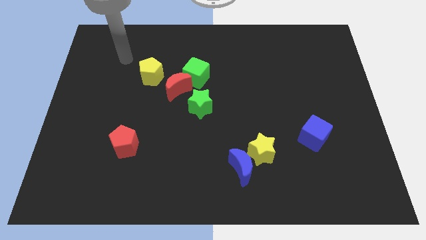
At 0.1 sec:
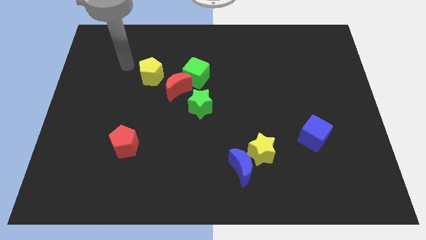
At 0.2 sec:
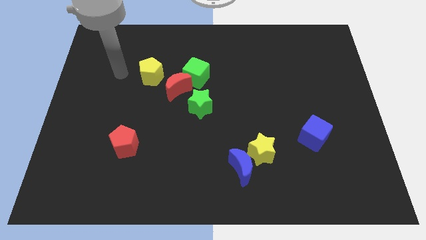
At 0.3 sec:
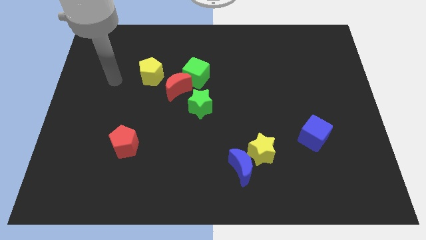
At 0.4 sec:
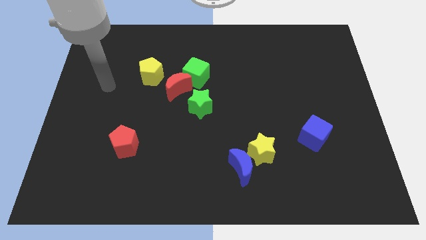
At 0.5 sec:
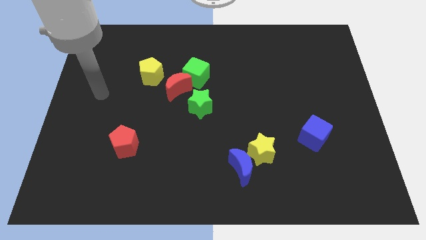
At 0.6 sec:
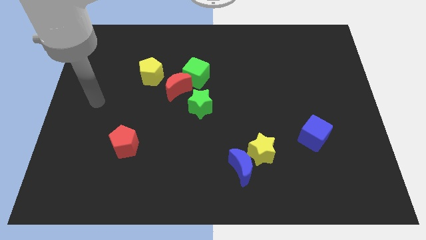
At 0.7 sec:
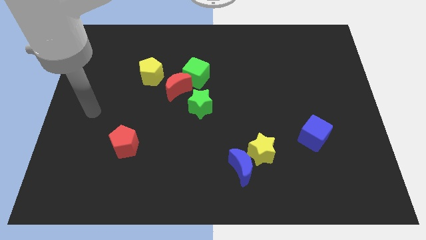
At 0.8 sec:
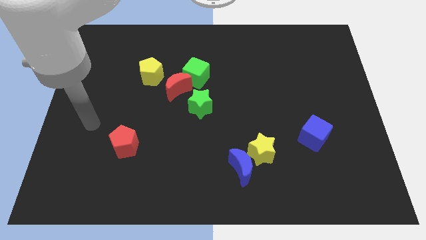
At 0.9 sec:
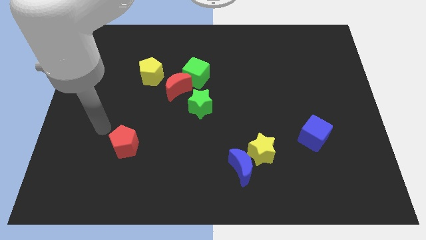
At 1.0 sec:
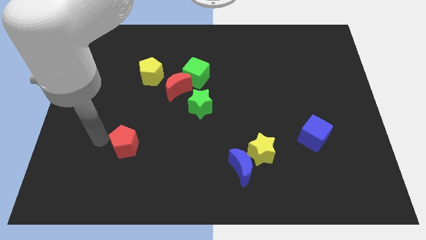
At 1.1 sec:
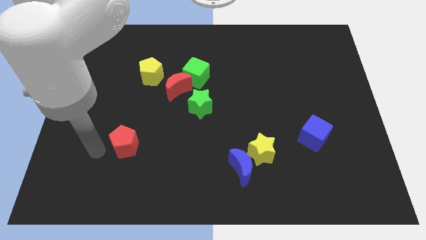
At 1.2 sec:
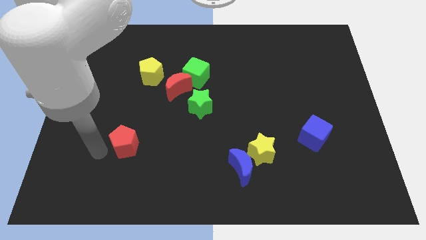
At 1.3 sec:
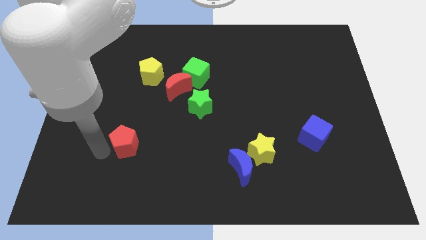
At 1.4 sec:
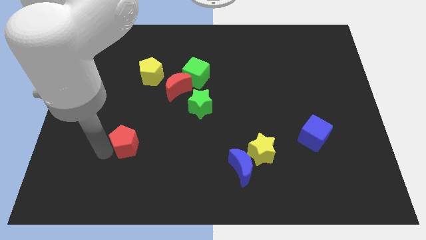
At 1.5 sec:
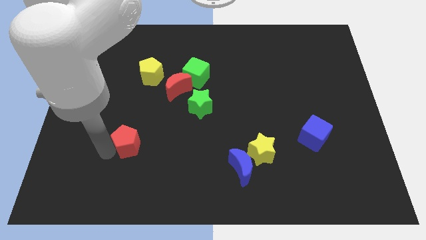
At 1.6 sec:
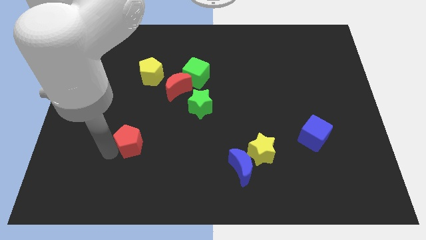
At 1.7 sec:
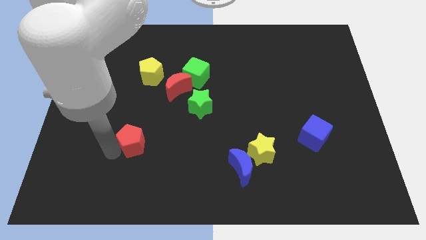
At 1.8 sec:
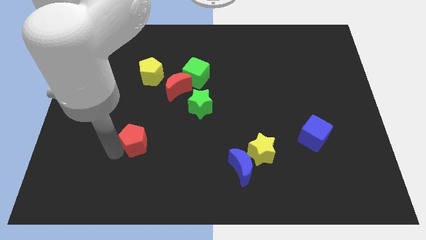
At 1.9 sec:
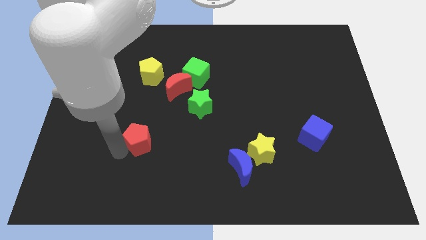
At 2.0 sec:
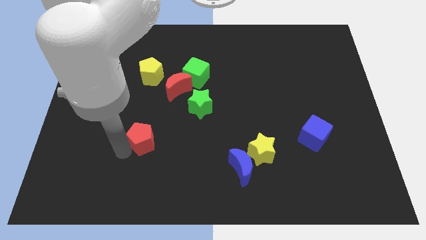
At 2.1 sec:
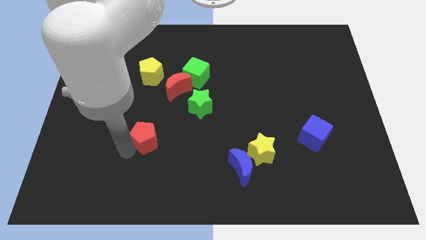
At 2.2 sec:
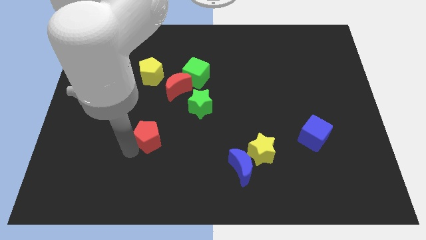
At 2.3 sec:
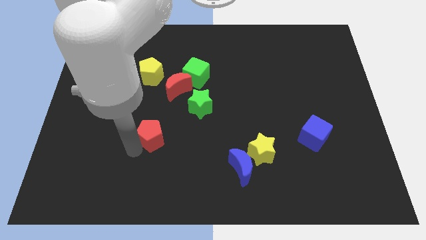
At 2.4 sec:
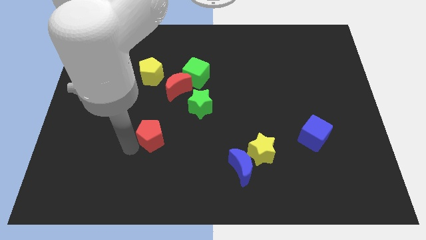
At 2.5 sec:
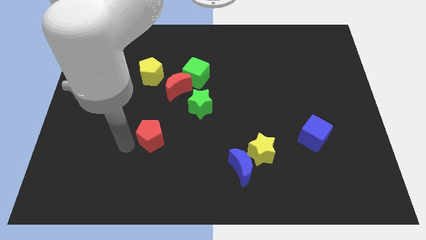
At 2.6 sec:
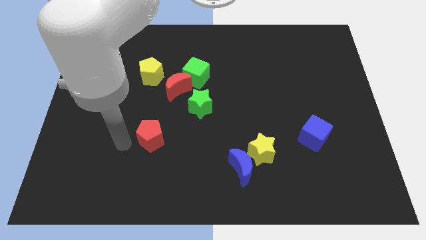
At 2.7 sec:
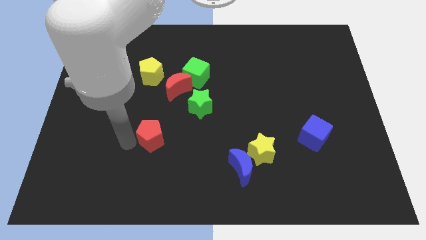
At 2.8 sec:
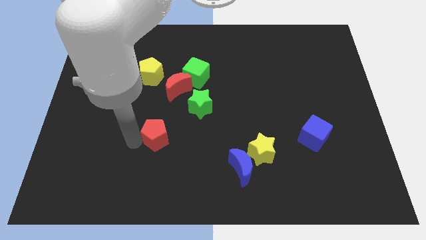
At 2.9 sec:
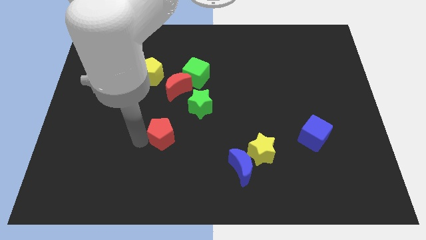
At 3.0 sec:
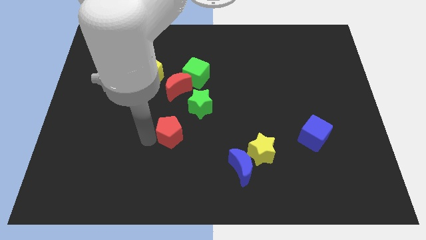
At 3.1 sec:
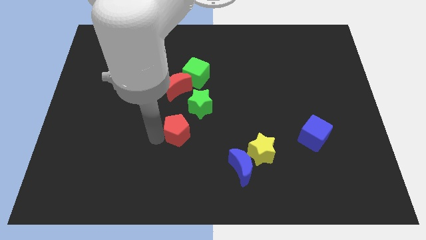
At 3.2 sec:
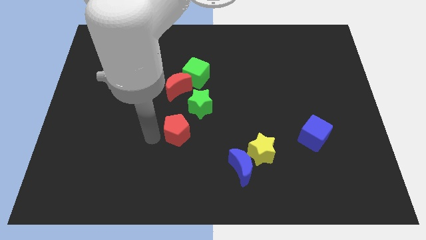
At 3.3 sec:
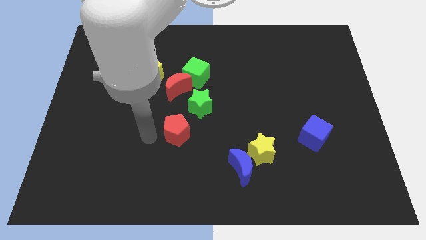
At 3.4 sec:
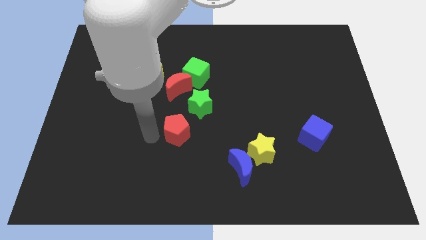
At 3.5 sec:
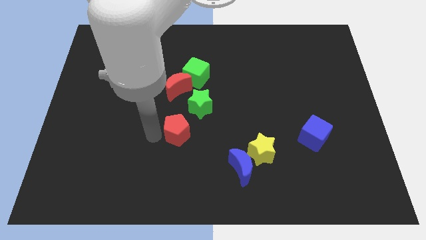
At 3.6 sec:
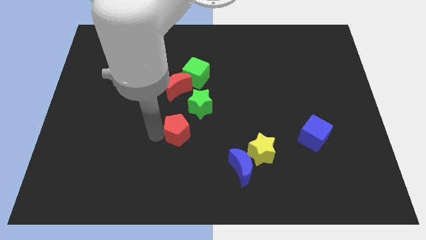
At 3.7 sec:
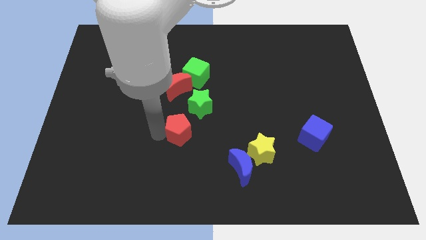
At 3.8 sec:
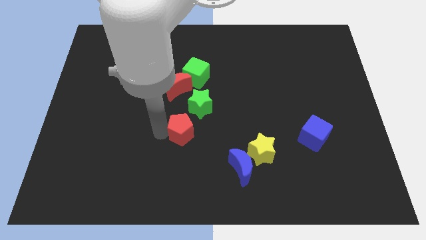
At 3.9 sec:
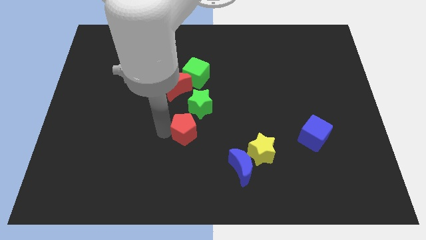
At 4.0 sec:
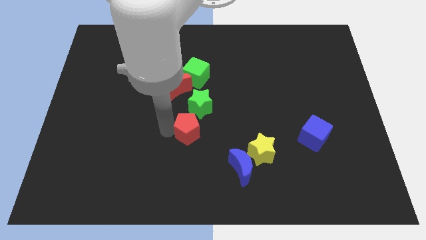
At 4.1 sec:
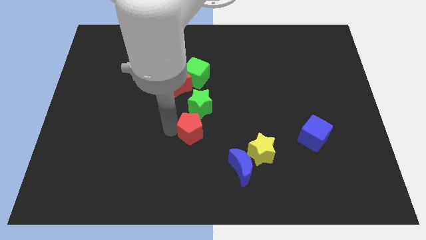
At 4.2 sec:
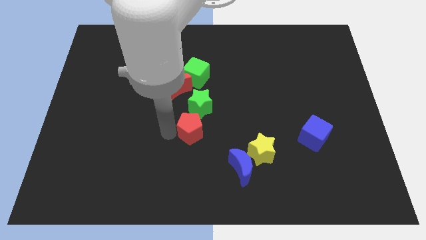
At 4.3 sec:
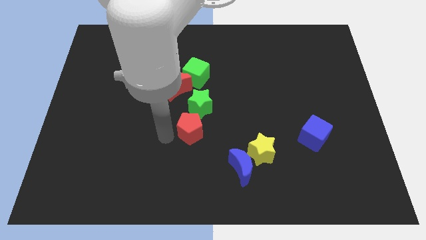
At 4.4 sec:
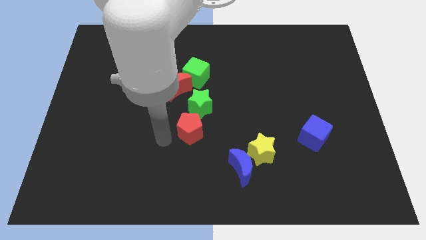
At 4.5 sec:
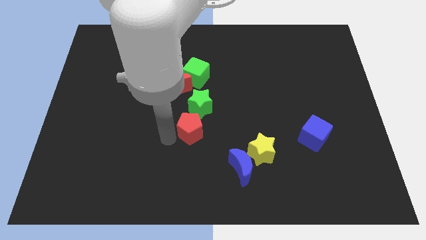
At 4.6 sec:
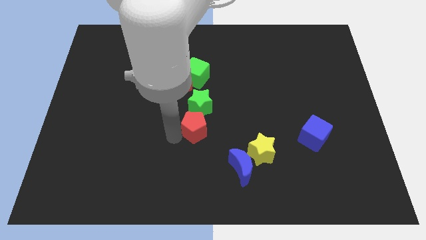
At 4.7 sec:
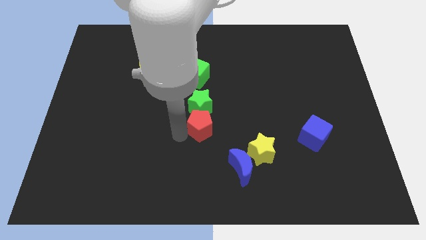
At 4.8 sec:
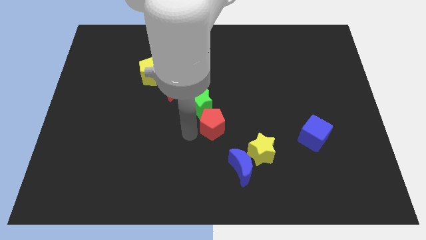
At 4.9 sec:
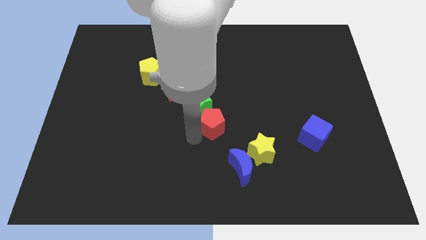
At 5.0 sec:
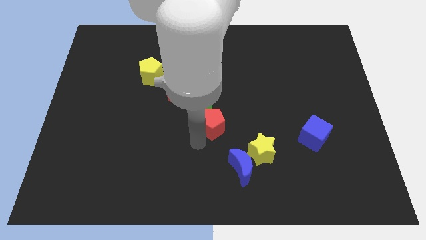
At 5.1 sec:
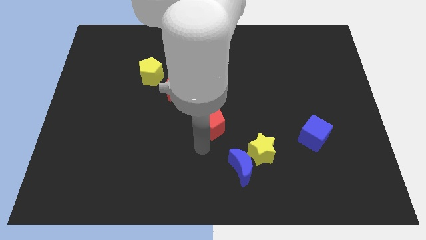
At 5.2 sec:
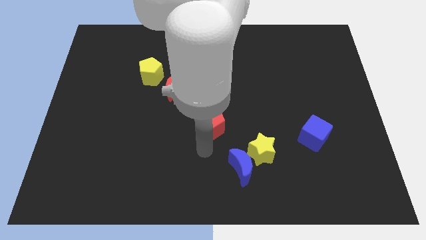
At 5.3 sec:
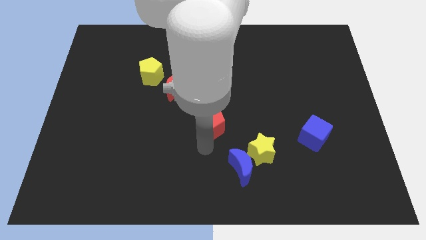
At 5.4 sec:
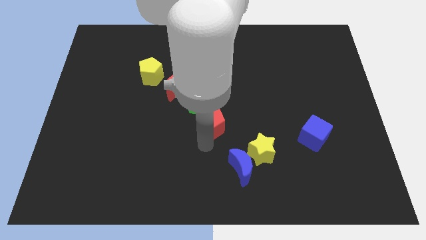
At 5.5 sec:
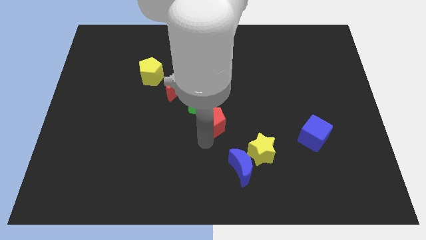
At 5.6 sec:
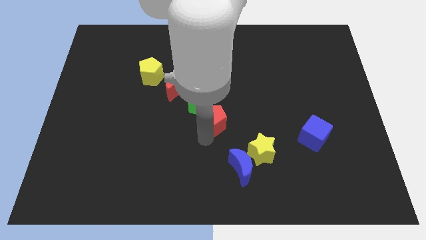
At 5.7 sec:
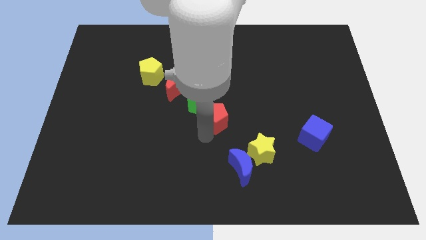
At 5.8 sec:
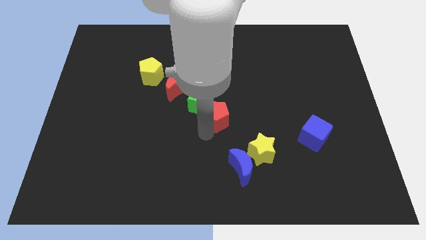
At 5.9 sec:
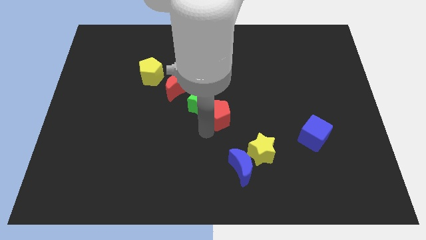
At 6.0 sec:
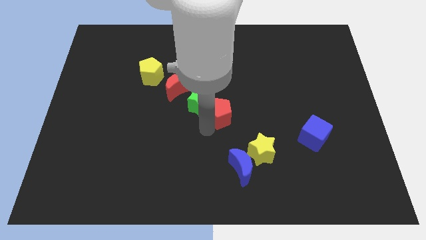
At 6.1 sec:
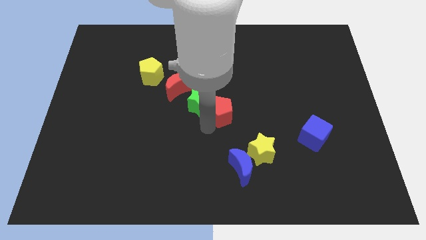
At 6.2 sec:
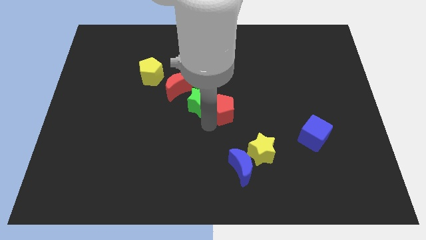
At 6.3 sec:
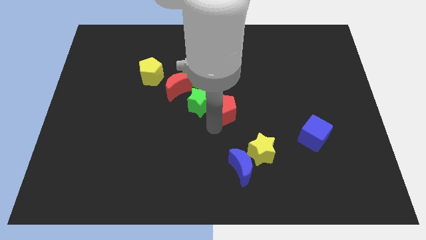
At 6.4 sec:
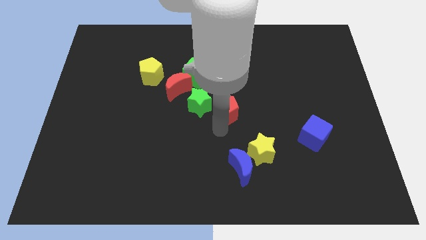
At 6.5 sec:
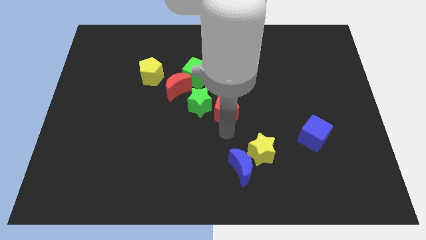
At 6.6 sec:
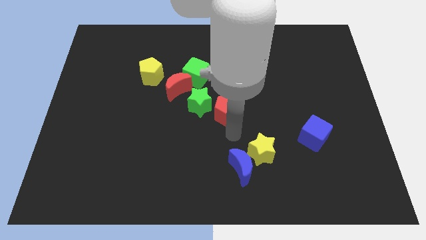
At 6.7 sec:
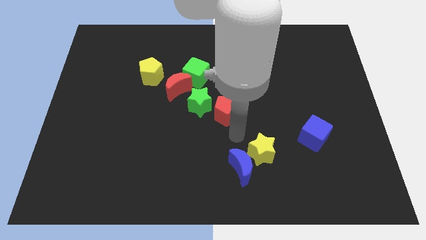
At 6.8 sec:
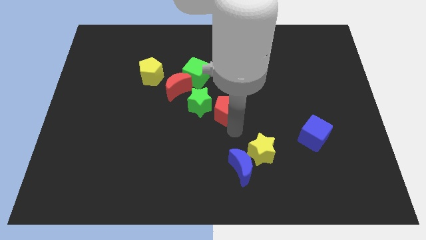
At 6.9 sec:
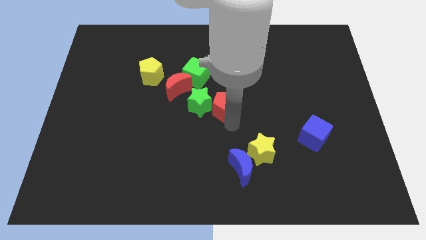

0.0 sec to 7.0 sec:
put the red pentagon to the bottom right of the green cube

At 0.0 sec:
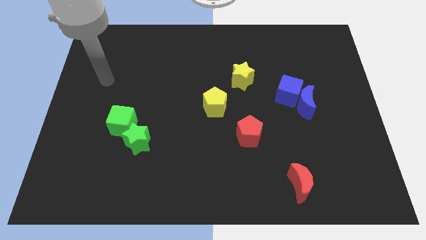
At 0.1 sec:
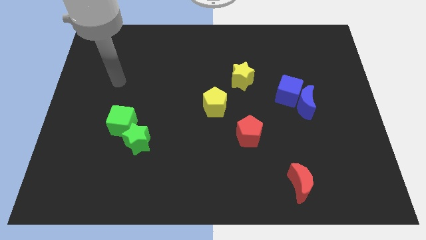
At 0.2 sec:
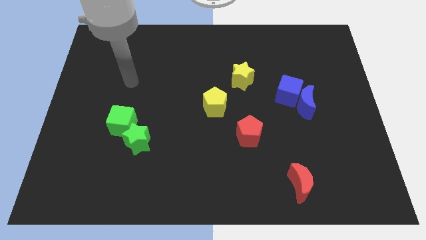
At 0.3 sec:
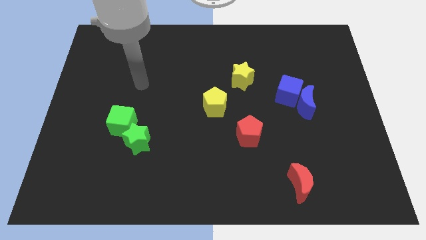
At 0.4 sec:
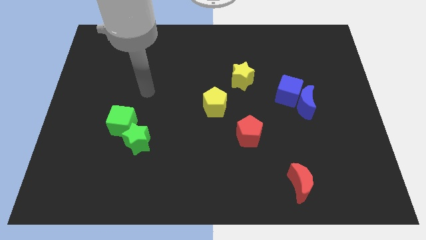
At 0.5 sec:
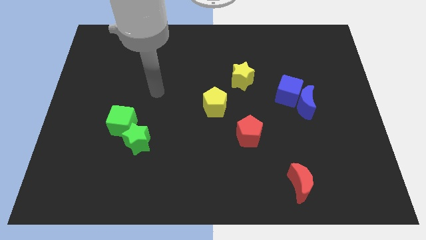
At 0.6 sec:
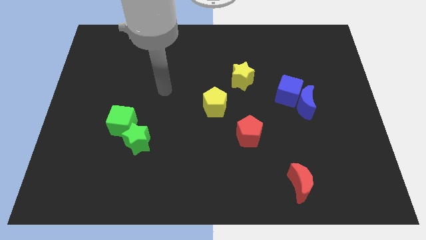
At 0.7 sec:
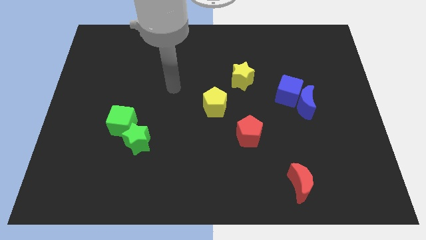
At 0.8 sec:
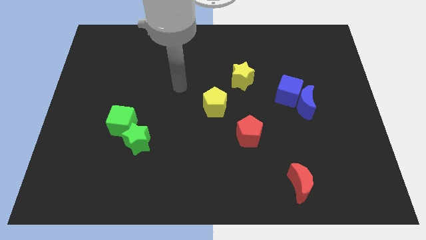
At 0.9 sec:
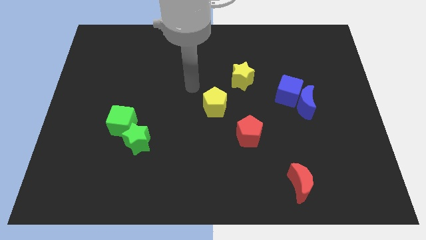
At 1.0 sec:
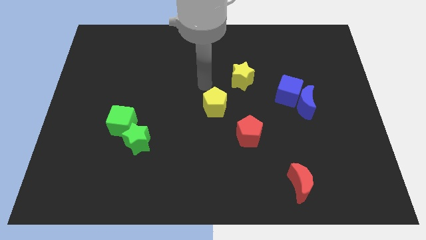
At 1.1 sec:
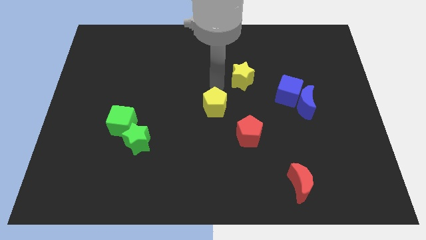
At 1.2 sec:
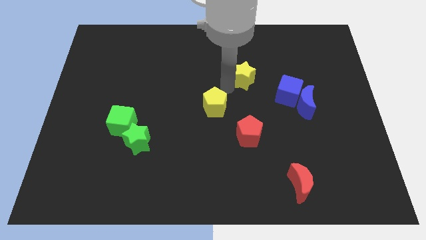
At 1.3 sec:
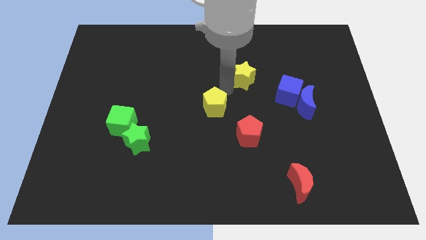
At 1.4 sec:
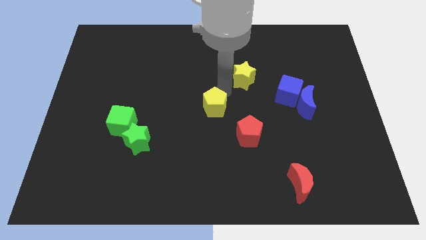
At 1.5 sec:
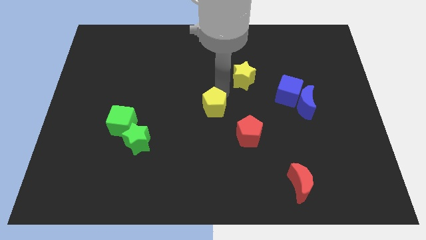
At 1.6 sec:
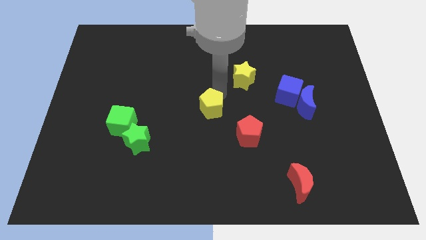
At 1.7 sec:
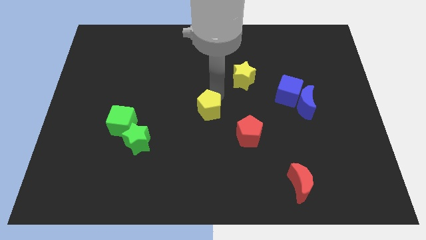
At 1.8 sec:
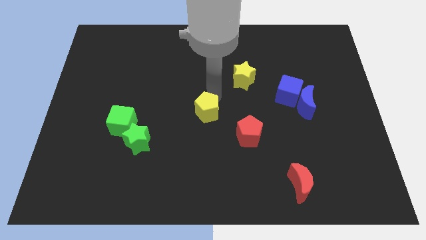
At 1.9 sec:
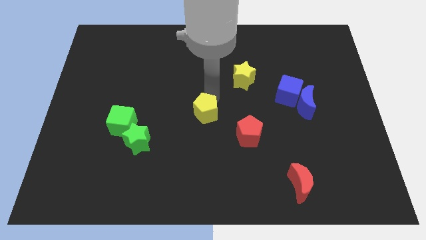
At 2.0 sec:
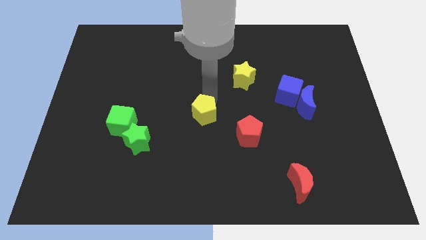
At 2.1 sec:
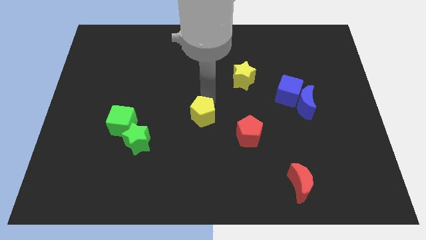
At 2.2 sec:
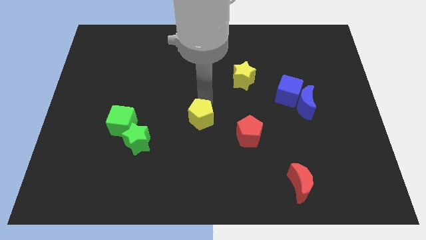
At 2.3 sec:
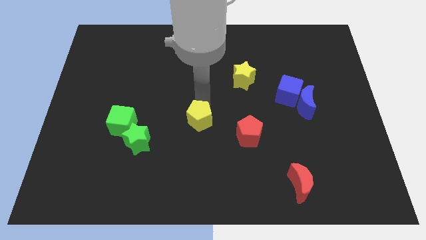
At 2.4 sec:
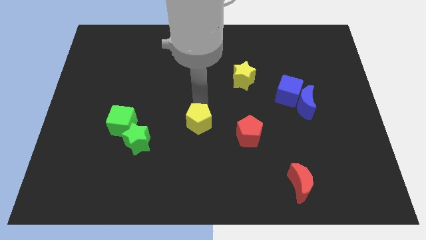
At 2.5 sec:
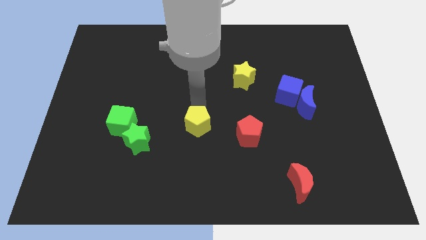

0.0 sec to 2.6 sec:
slide the yellow pentagon right of the green star
